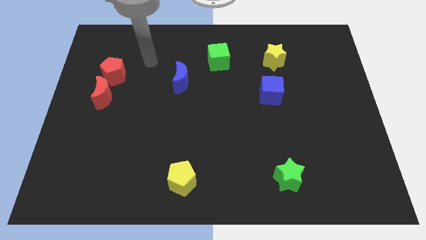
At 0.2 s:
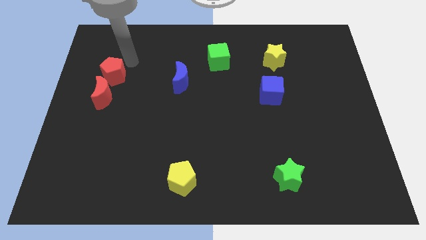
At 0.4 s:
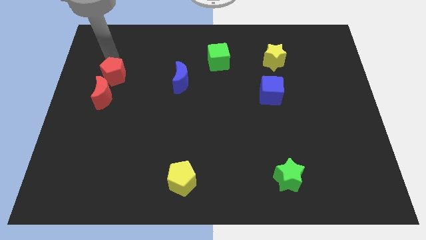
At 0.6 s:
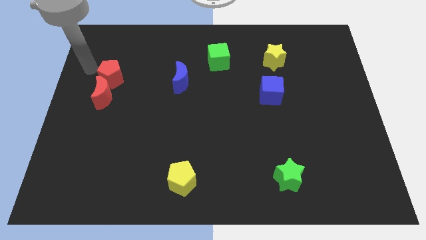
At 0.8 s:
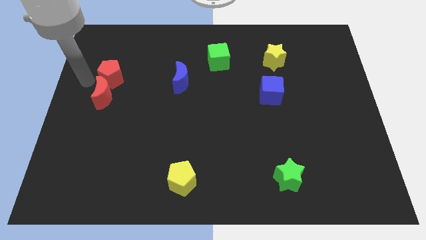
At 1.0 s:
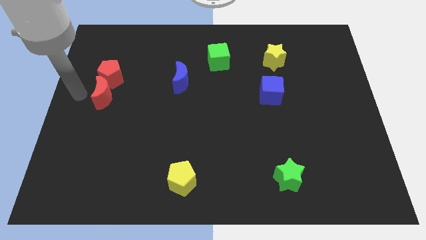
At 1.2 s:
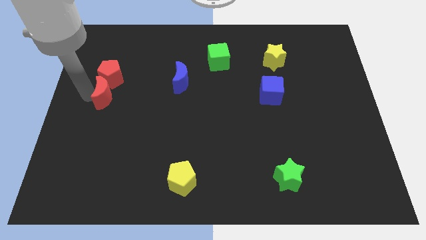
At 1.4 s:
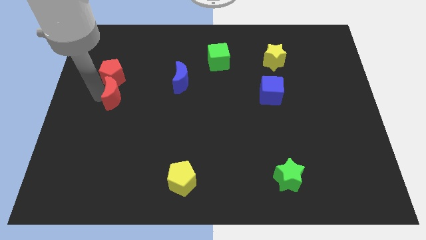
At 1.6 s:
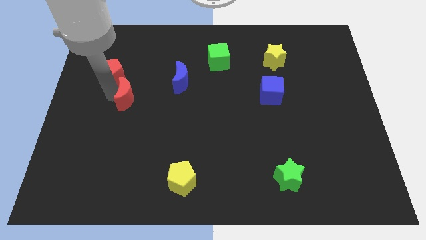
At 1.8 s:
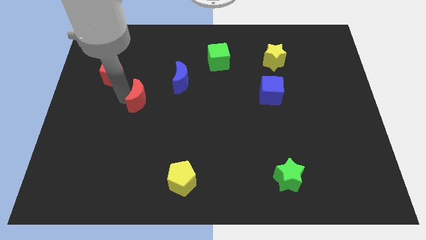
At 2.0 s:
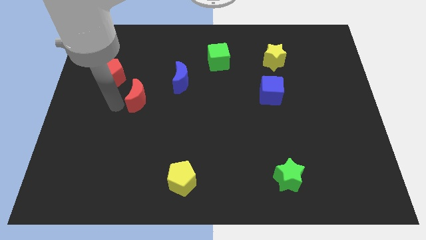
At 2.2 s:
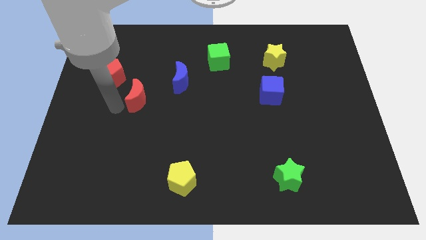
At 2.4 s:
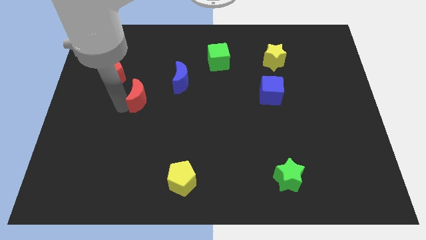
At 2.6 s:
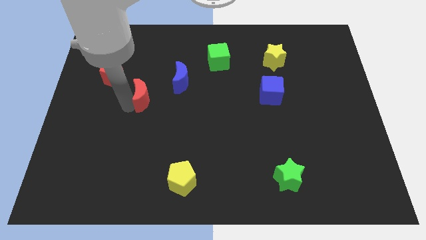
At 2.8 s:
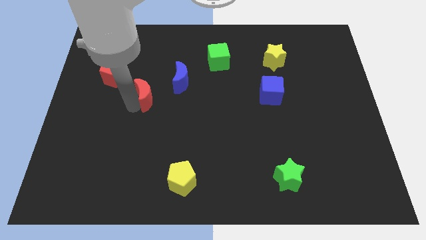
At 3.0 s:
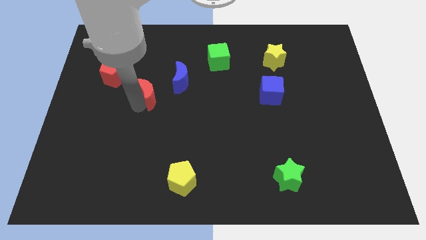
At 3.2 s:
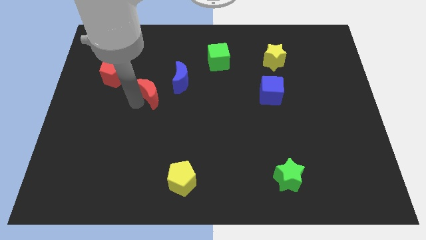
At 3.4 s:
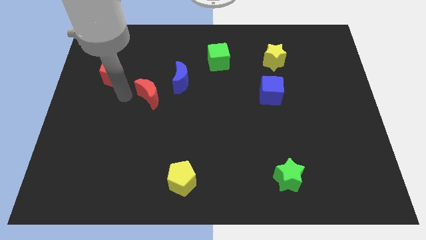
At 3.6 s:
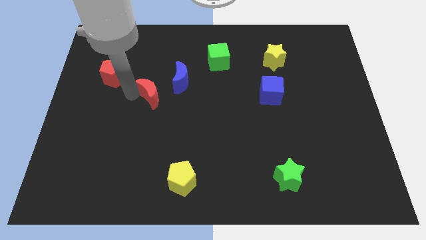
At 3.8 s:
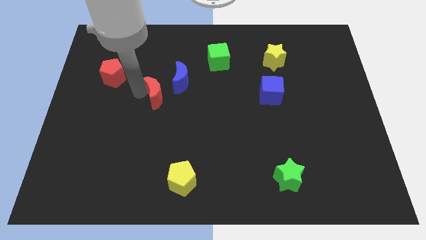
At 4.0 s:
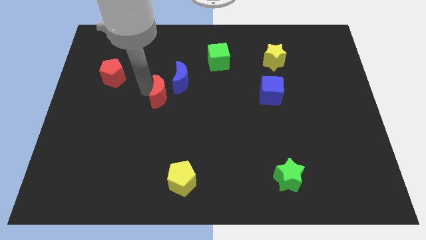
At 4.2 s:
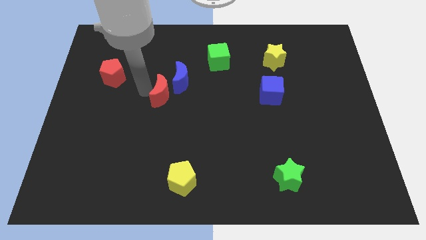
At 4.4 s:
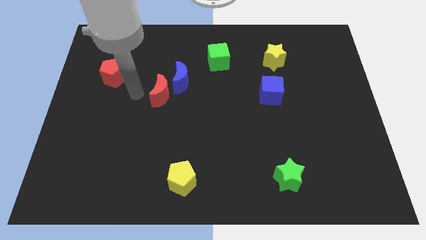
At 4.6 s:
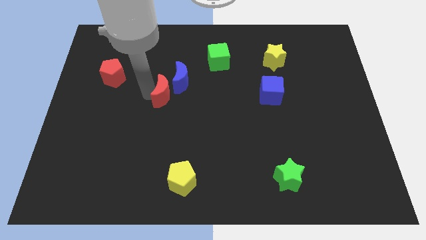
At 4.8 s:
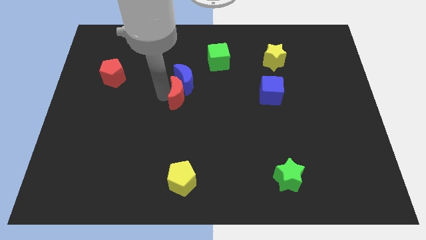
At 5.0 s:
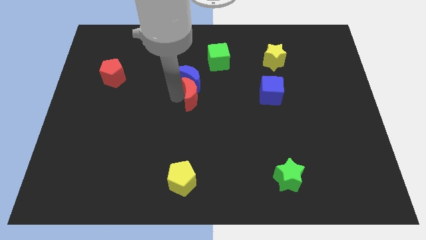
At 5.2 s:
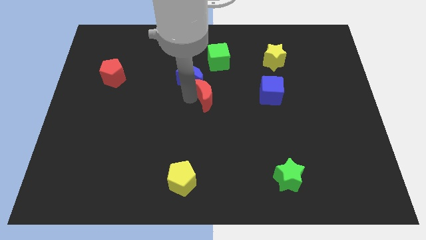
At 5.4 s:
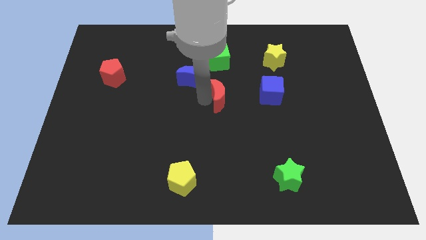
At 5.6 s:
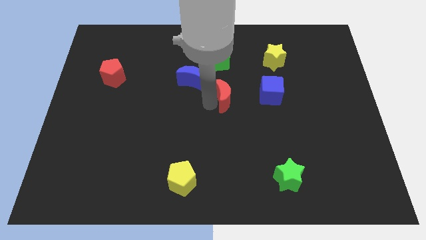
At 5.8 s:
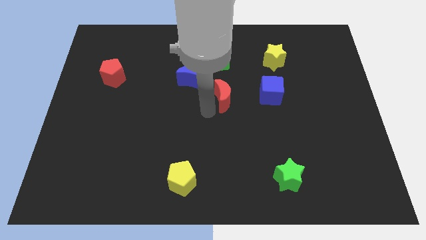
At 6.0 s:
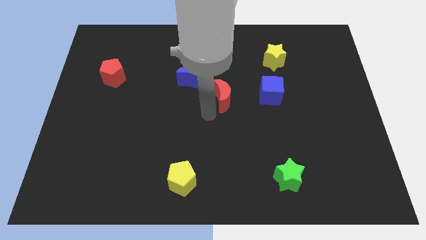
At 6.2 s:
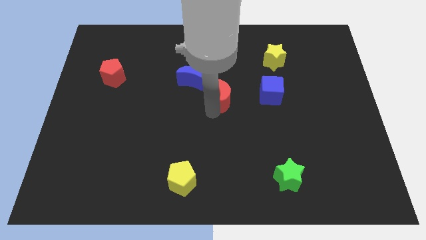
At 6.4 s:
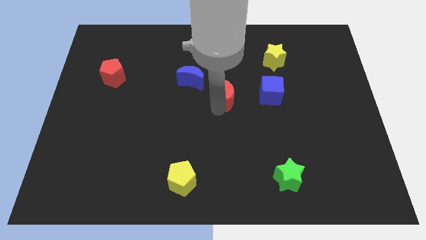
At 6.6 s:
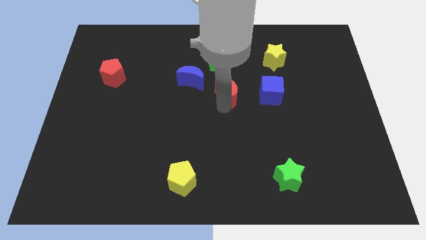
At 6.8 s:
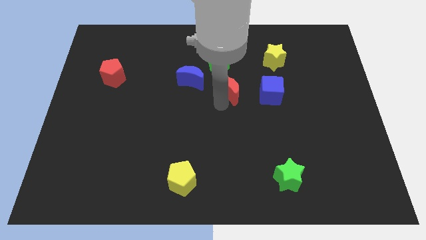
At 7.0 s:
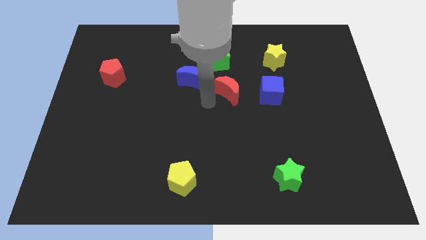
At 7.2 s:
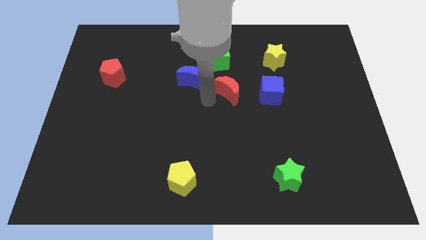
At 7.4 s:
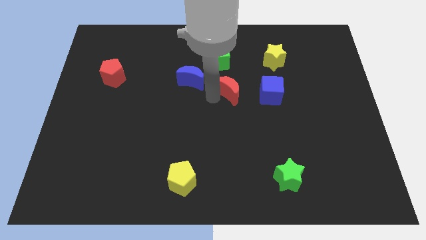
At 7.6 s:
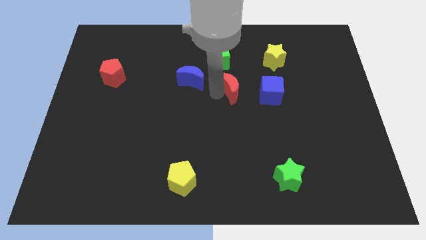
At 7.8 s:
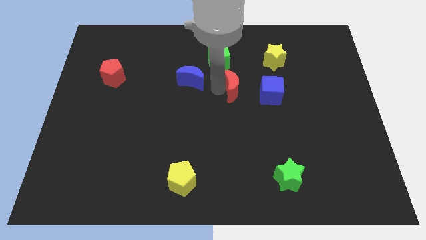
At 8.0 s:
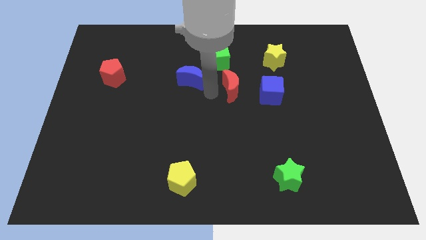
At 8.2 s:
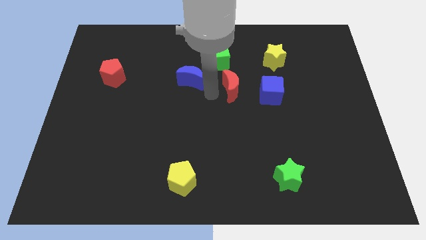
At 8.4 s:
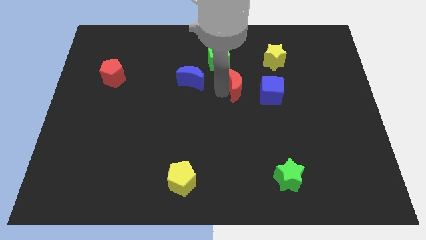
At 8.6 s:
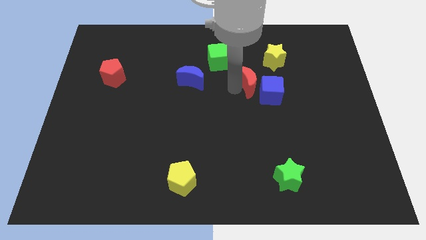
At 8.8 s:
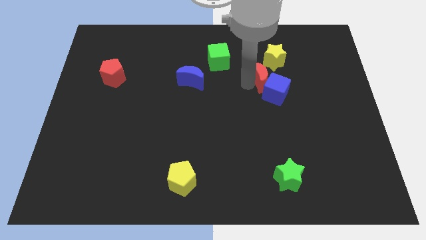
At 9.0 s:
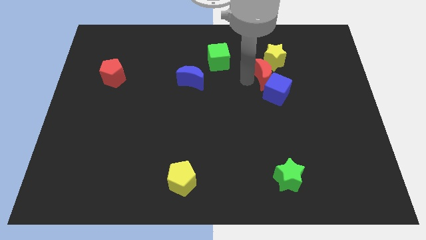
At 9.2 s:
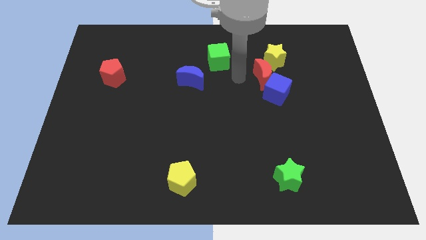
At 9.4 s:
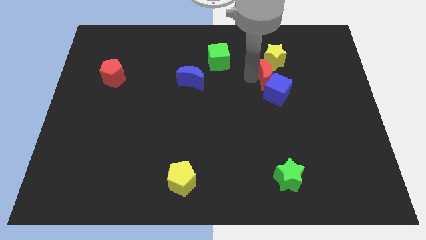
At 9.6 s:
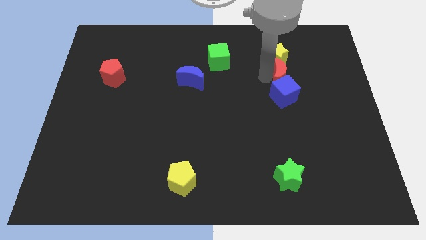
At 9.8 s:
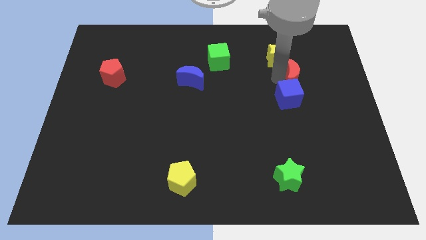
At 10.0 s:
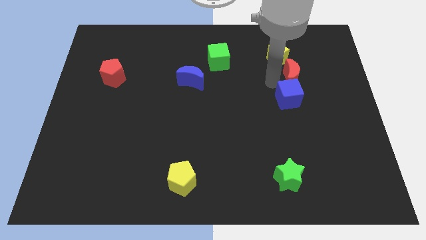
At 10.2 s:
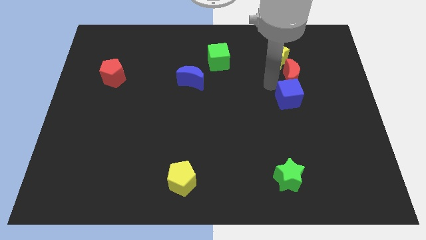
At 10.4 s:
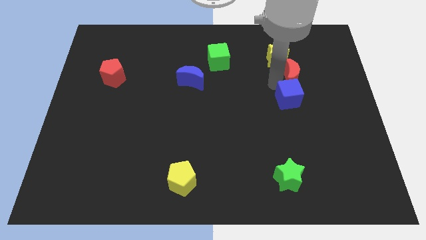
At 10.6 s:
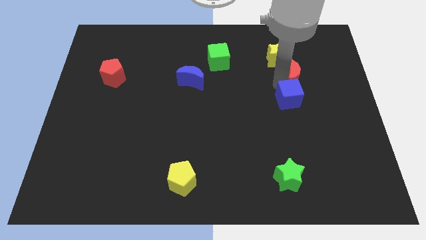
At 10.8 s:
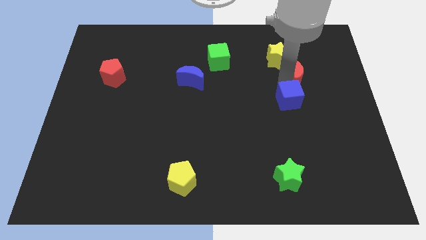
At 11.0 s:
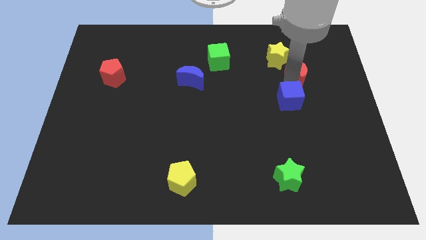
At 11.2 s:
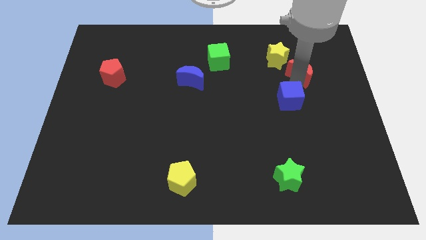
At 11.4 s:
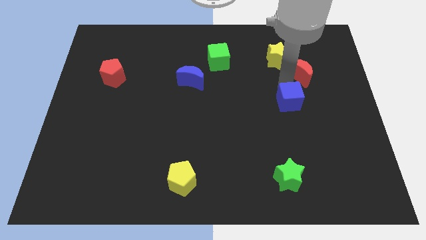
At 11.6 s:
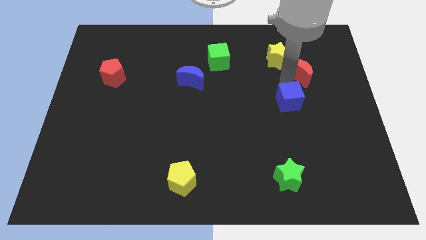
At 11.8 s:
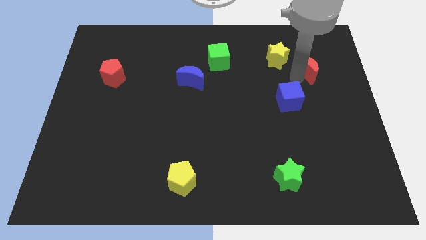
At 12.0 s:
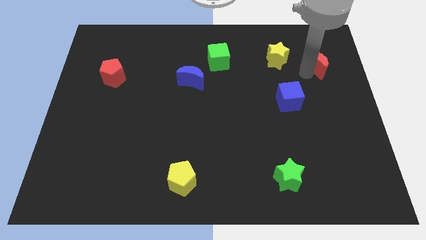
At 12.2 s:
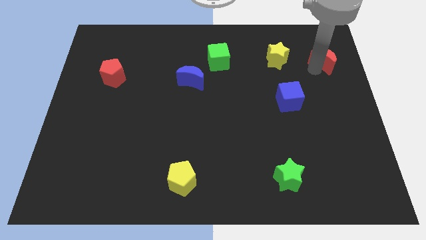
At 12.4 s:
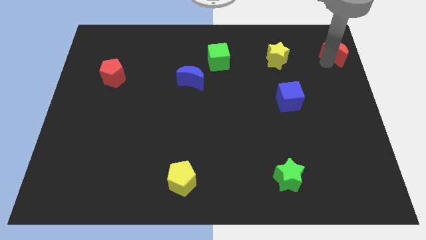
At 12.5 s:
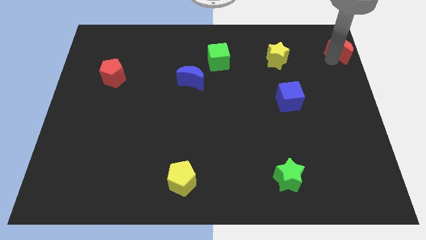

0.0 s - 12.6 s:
push the red moon to the top right corner
